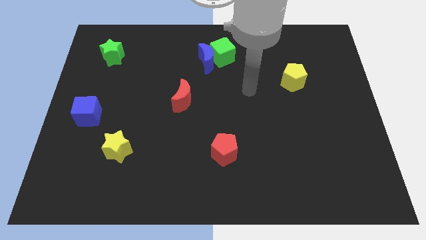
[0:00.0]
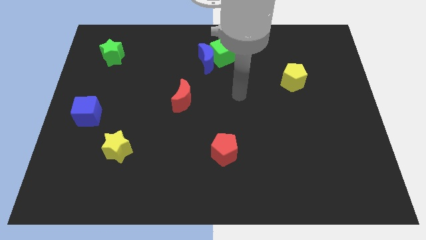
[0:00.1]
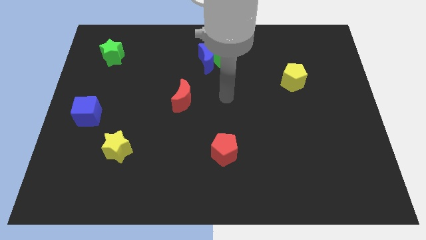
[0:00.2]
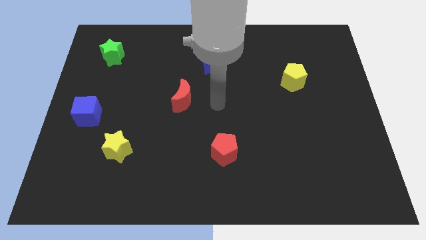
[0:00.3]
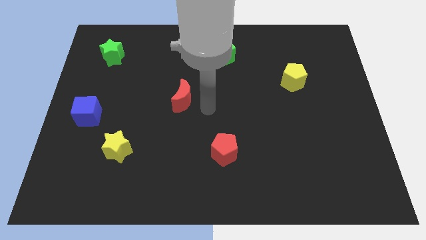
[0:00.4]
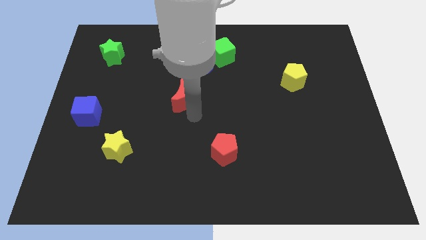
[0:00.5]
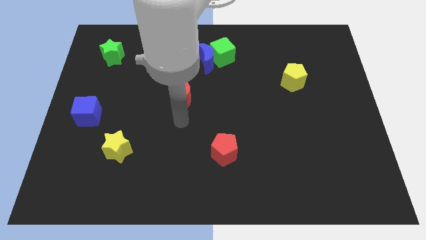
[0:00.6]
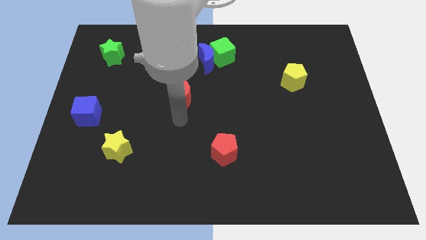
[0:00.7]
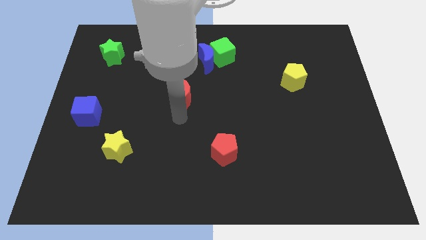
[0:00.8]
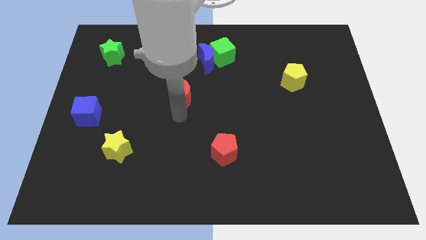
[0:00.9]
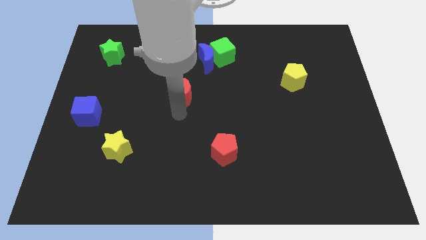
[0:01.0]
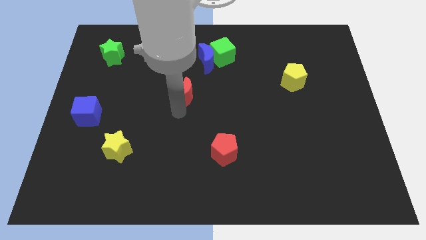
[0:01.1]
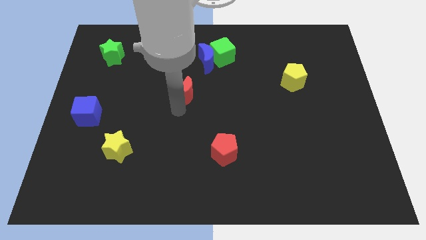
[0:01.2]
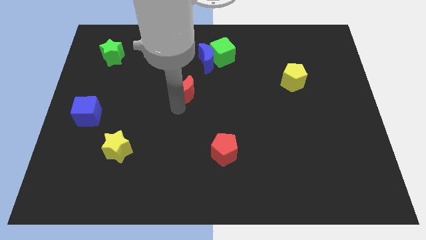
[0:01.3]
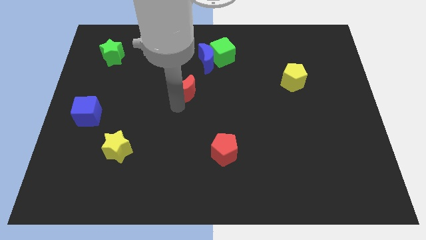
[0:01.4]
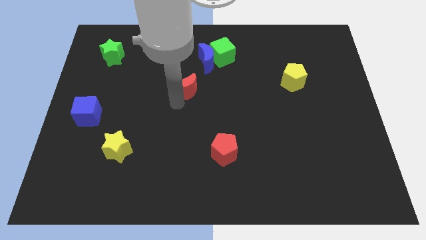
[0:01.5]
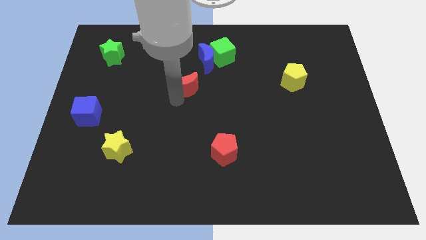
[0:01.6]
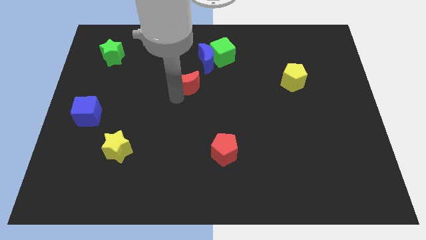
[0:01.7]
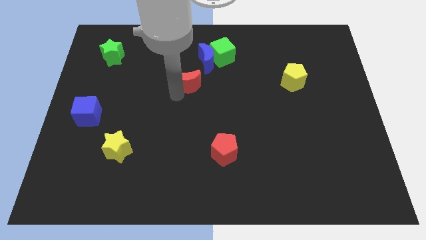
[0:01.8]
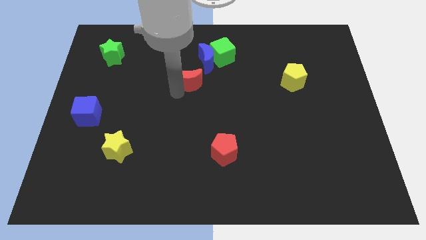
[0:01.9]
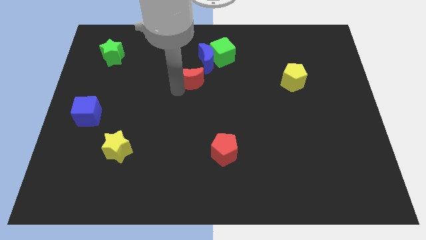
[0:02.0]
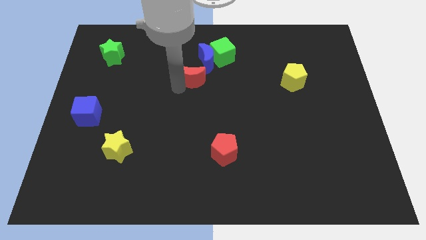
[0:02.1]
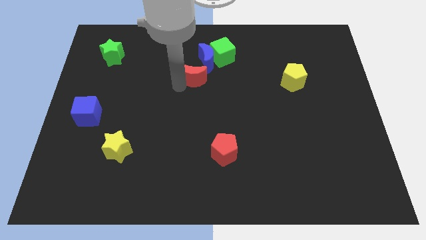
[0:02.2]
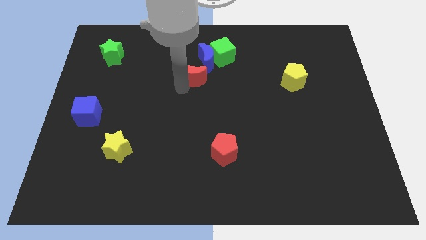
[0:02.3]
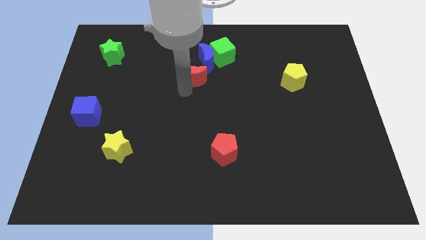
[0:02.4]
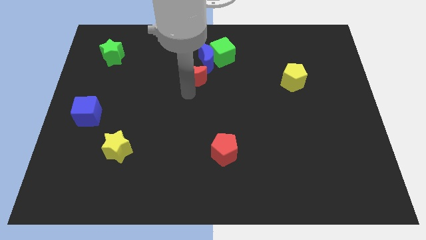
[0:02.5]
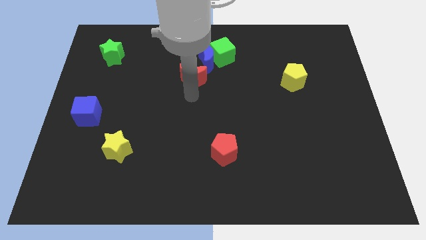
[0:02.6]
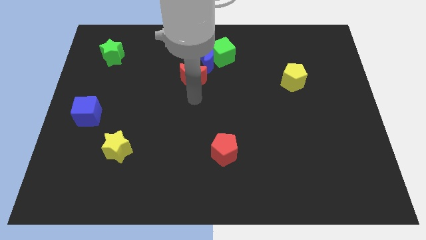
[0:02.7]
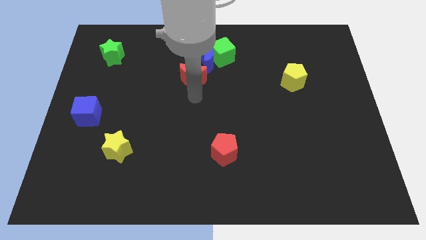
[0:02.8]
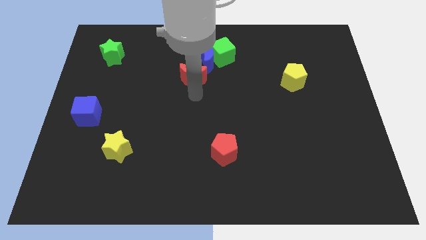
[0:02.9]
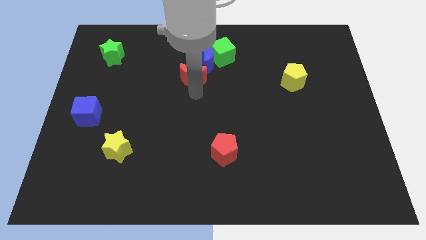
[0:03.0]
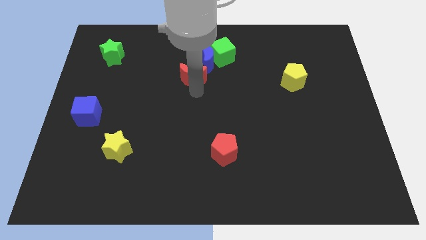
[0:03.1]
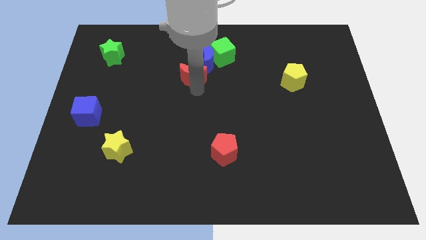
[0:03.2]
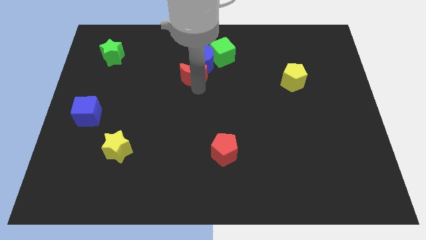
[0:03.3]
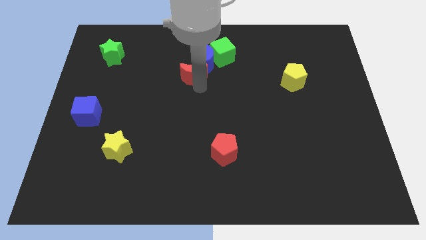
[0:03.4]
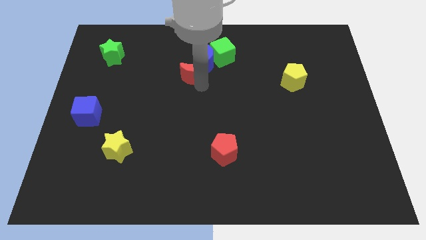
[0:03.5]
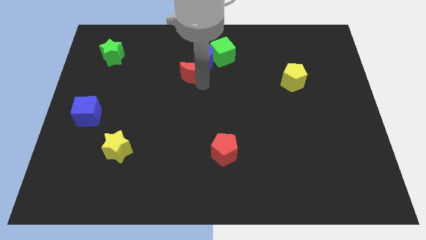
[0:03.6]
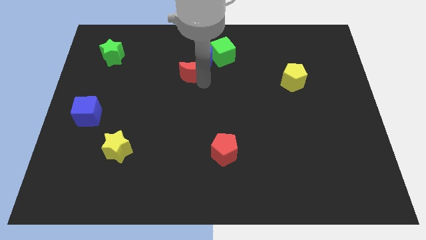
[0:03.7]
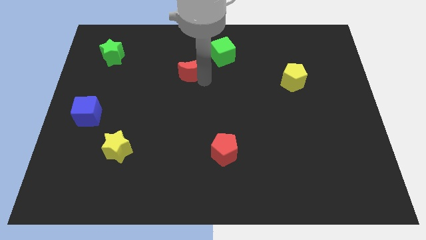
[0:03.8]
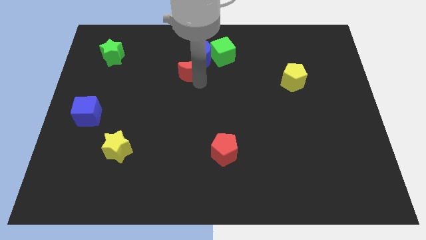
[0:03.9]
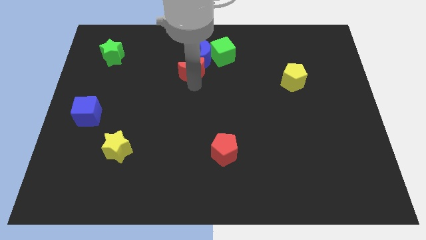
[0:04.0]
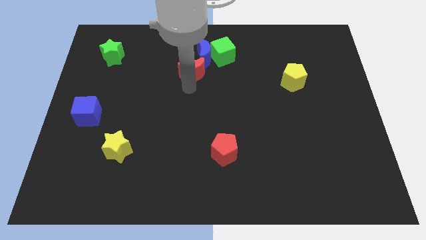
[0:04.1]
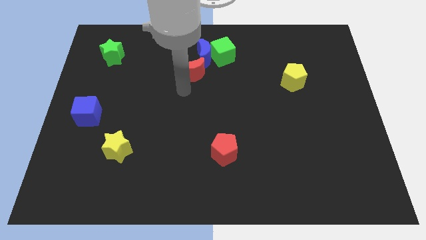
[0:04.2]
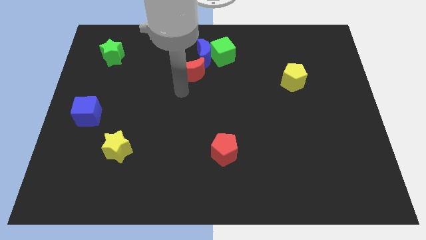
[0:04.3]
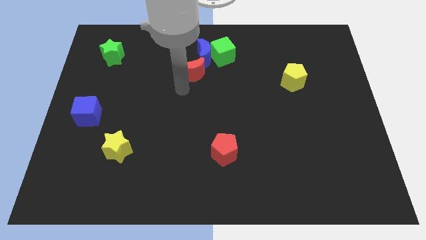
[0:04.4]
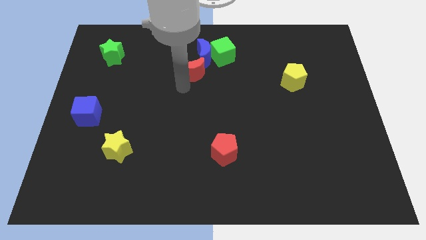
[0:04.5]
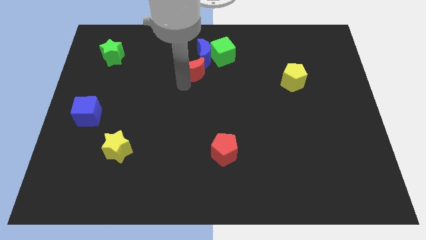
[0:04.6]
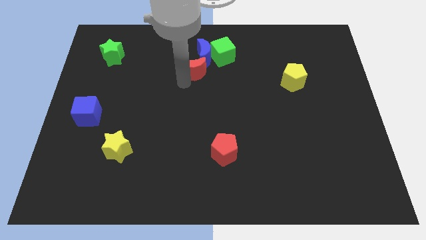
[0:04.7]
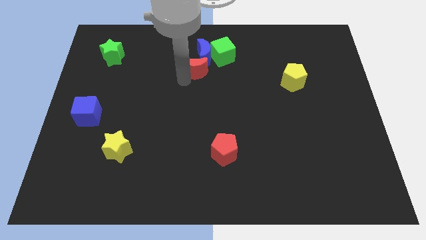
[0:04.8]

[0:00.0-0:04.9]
put the red moon close to the blue moon

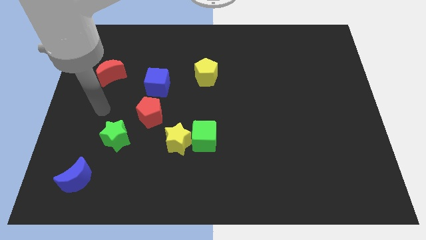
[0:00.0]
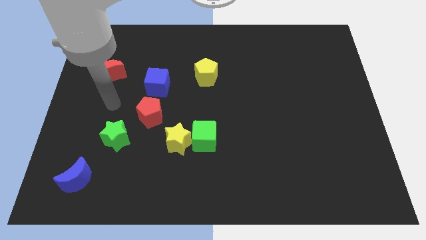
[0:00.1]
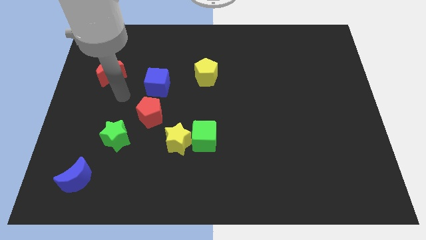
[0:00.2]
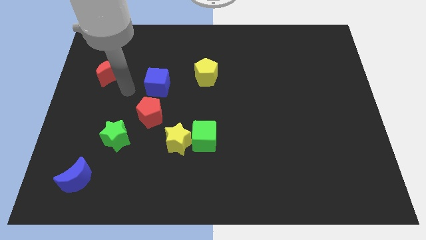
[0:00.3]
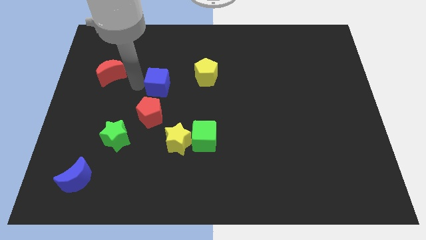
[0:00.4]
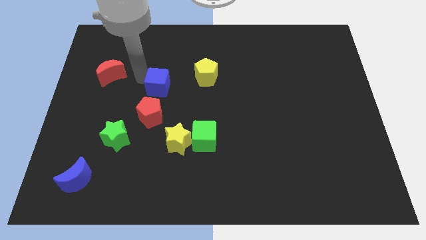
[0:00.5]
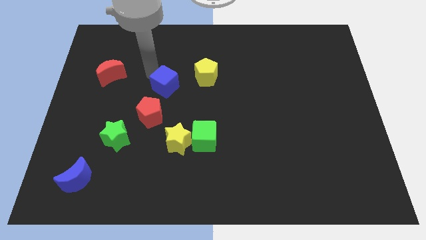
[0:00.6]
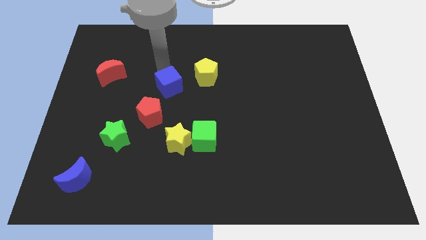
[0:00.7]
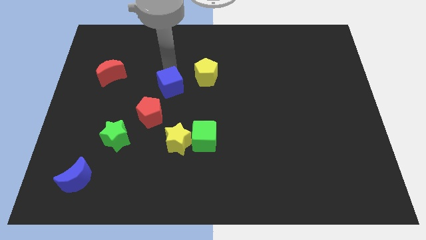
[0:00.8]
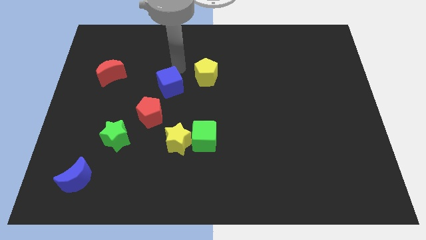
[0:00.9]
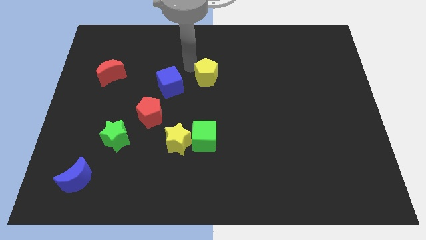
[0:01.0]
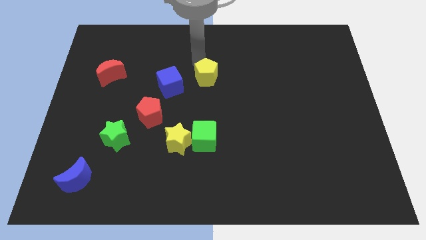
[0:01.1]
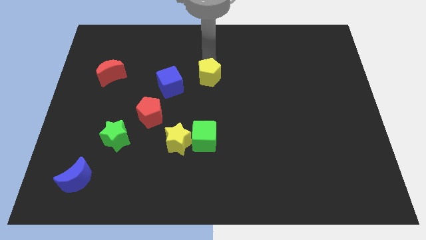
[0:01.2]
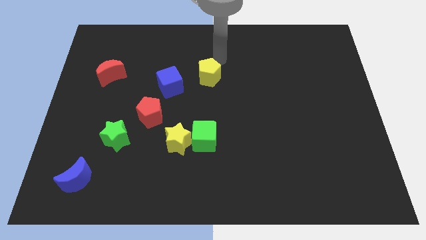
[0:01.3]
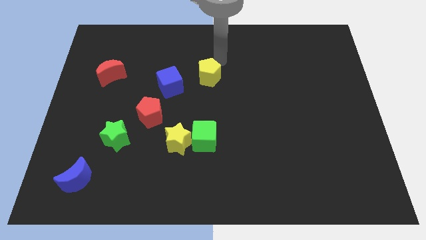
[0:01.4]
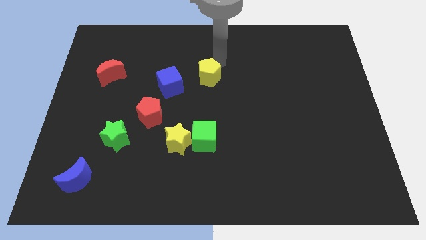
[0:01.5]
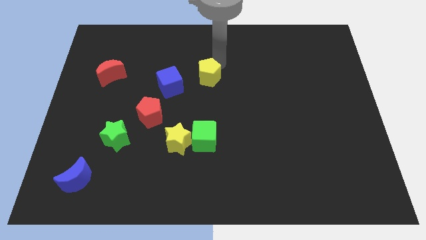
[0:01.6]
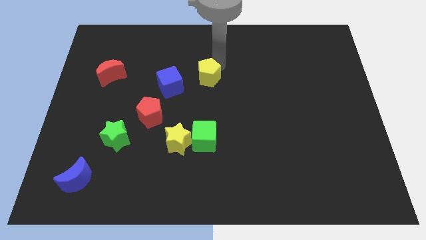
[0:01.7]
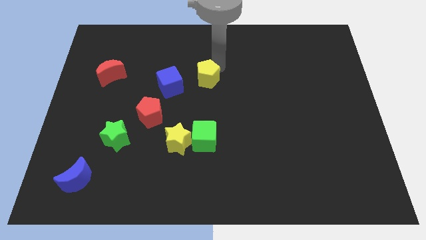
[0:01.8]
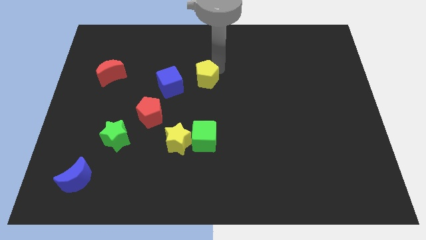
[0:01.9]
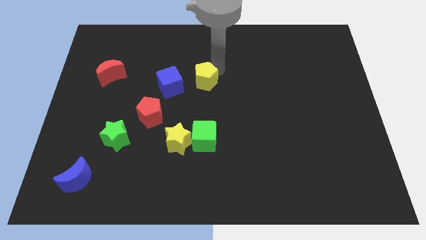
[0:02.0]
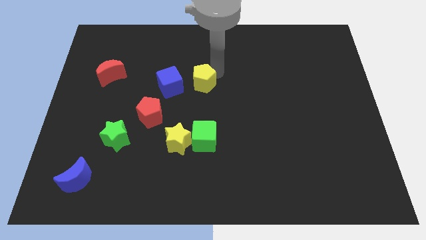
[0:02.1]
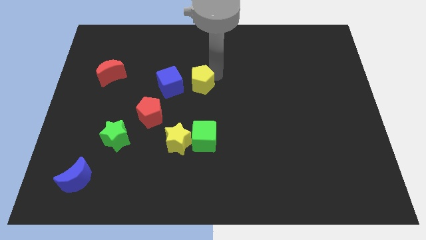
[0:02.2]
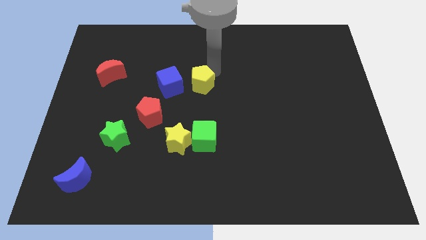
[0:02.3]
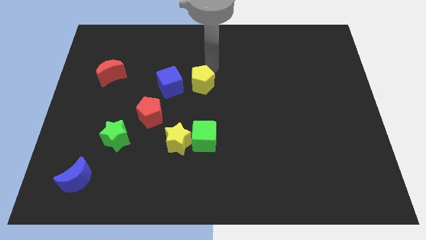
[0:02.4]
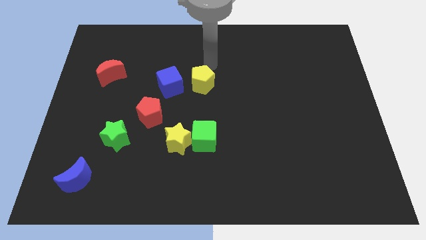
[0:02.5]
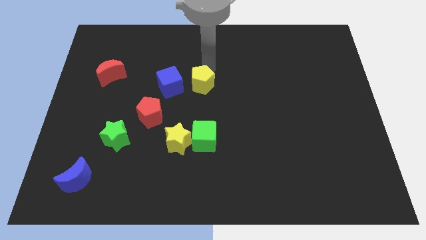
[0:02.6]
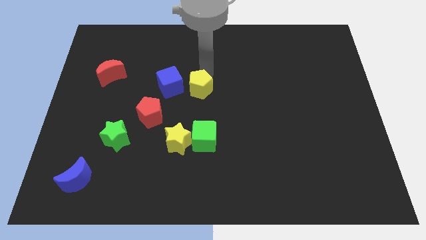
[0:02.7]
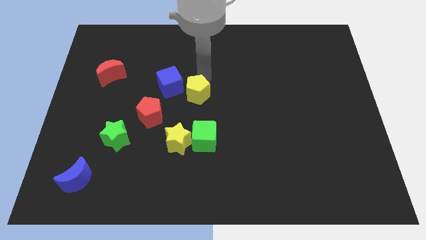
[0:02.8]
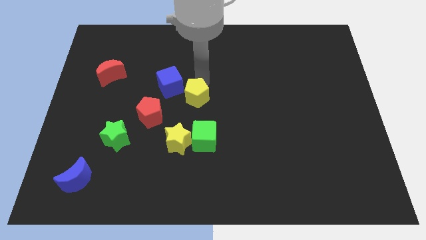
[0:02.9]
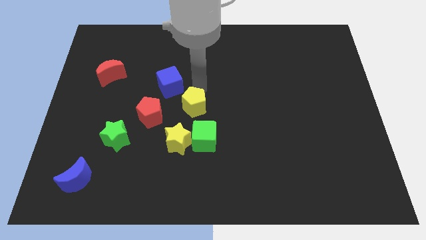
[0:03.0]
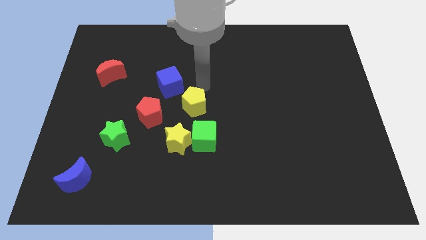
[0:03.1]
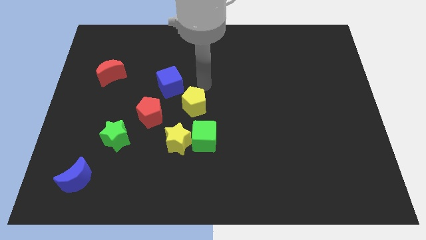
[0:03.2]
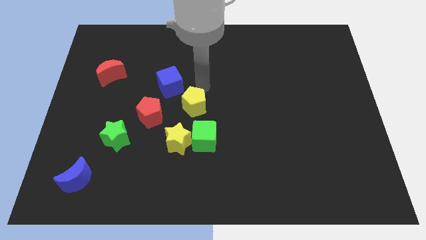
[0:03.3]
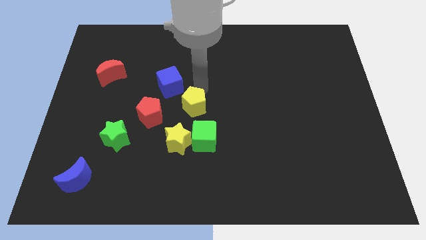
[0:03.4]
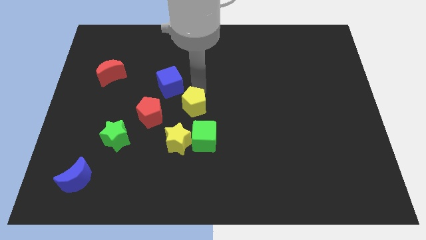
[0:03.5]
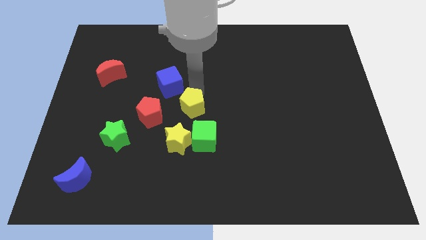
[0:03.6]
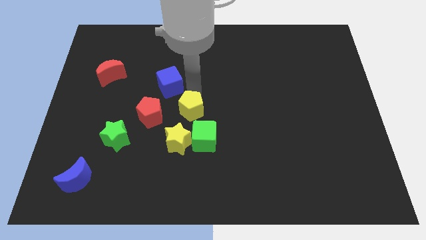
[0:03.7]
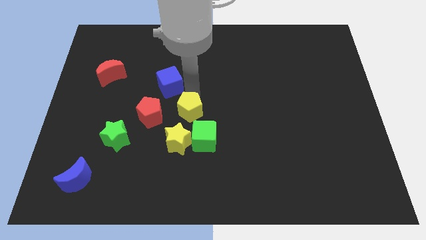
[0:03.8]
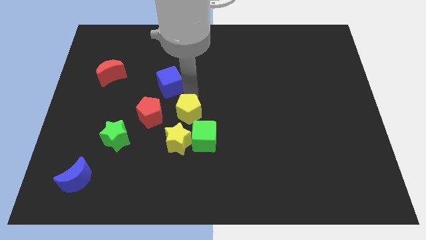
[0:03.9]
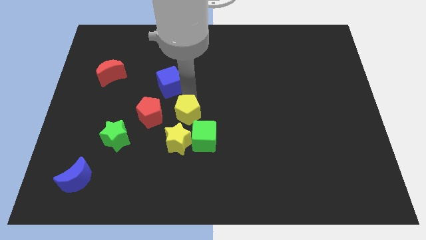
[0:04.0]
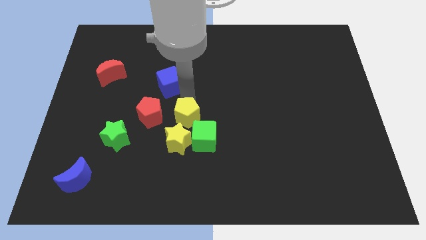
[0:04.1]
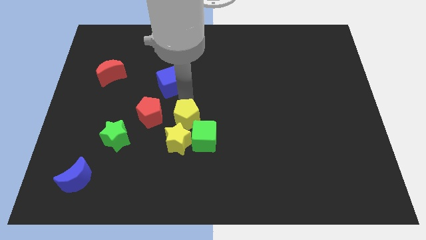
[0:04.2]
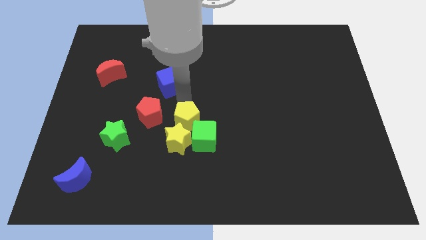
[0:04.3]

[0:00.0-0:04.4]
put the yellow pentagon towards the yellow star
